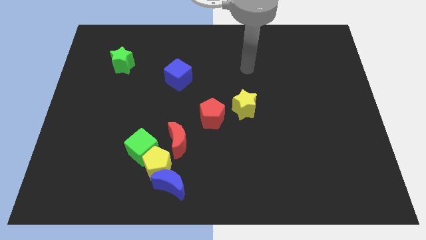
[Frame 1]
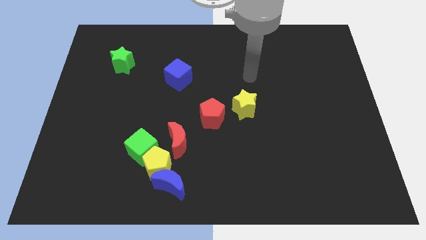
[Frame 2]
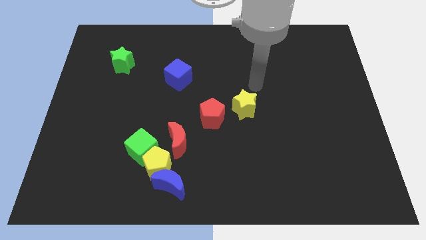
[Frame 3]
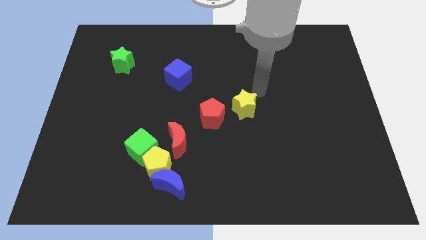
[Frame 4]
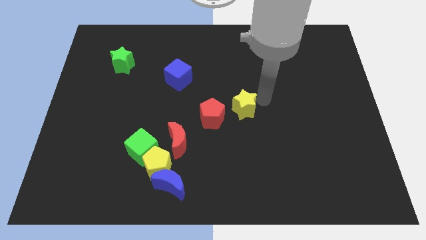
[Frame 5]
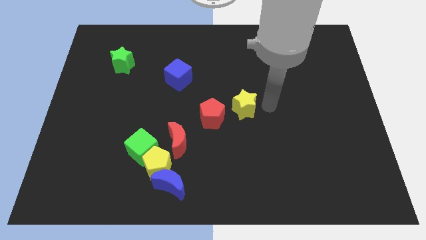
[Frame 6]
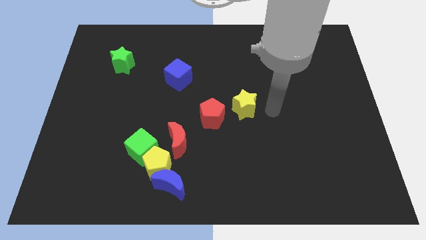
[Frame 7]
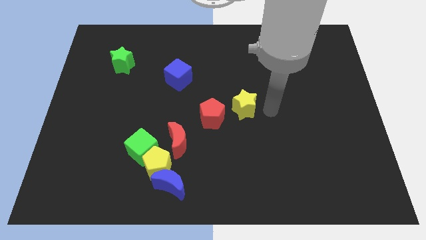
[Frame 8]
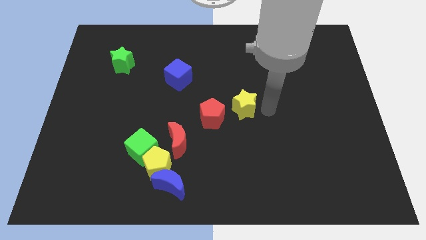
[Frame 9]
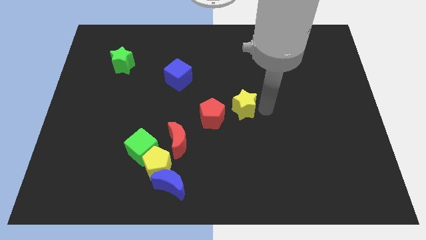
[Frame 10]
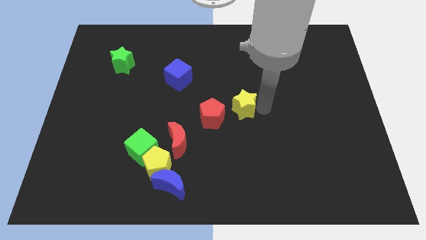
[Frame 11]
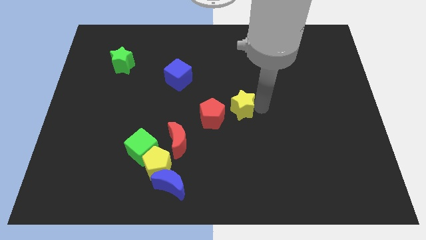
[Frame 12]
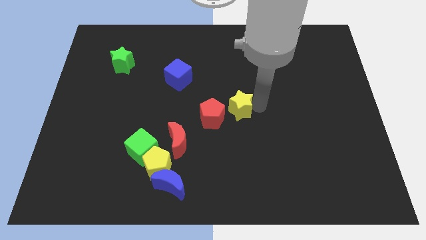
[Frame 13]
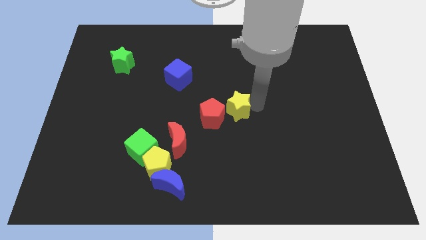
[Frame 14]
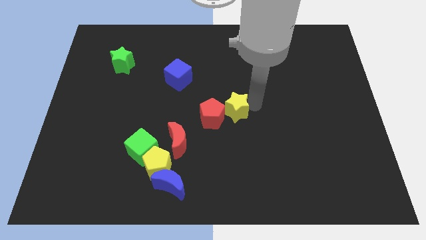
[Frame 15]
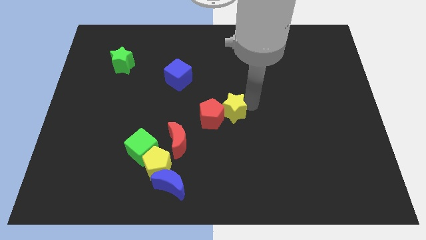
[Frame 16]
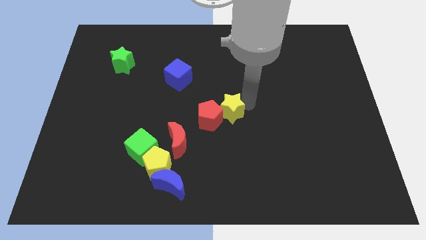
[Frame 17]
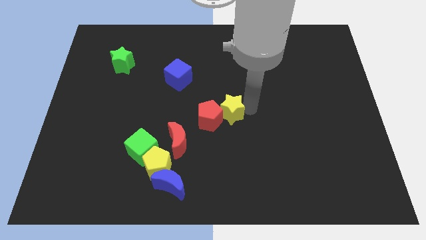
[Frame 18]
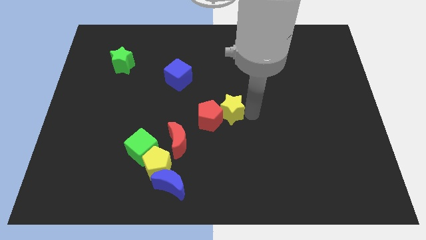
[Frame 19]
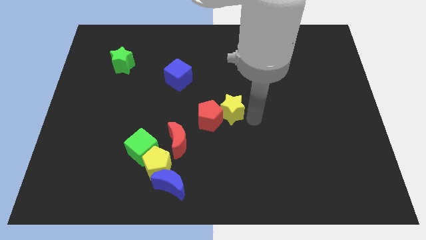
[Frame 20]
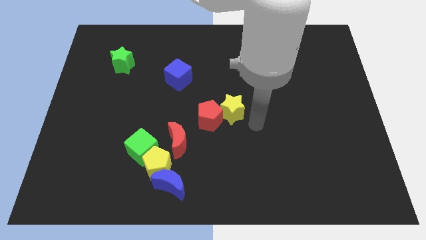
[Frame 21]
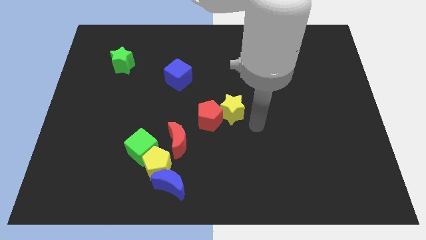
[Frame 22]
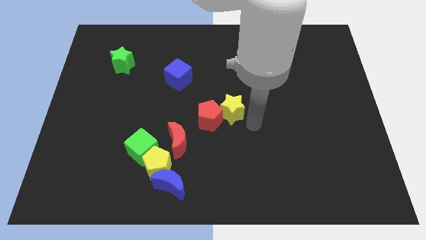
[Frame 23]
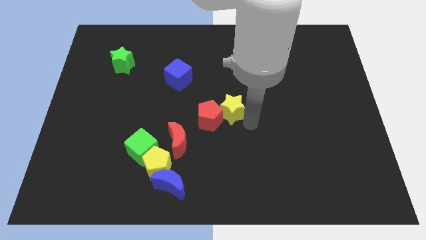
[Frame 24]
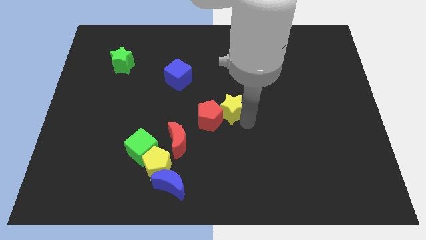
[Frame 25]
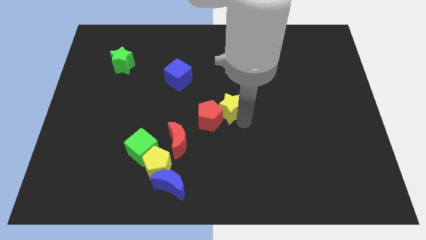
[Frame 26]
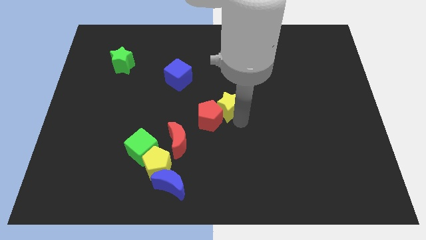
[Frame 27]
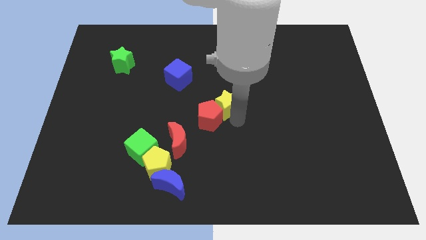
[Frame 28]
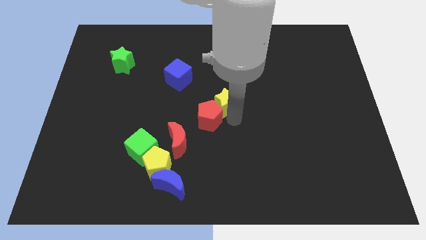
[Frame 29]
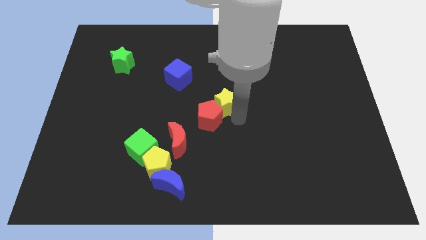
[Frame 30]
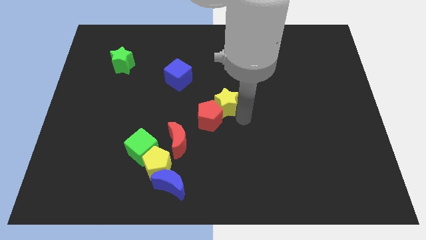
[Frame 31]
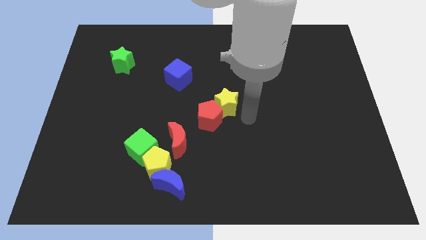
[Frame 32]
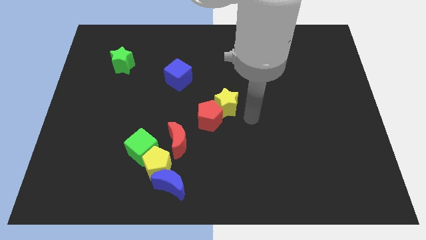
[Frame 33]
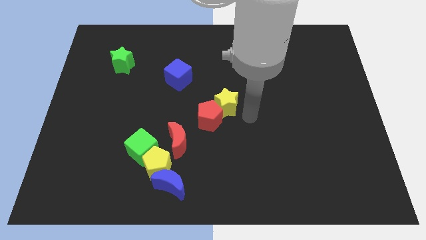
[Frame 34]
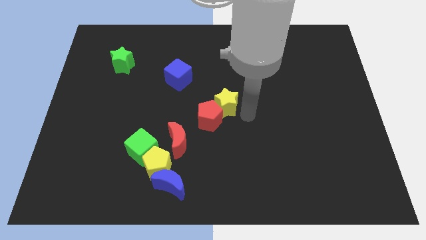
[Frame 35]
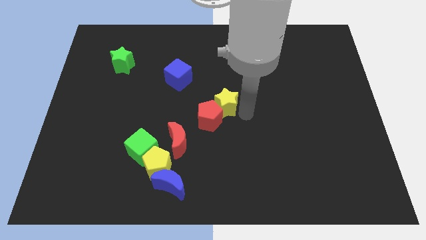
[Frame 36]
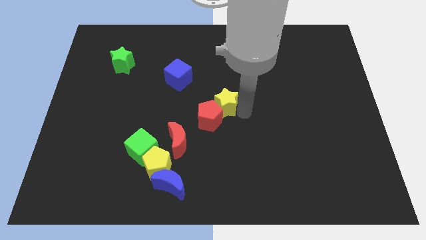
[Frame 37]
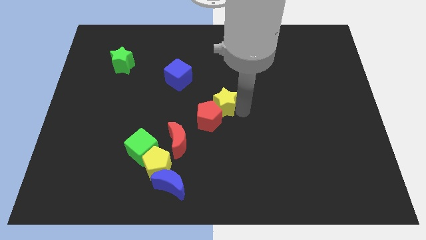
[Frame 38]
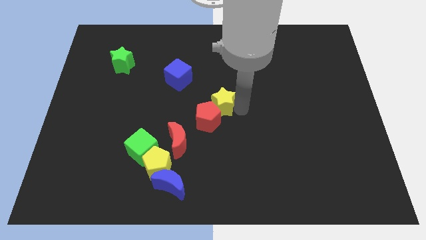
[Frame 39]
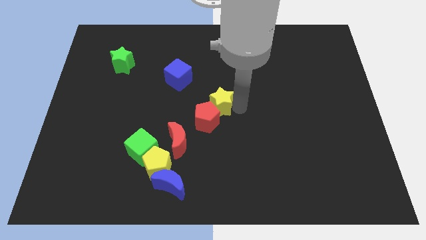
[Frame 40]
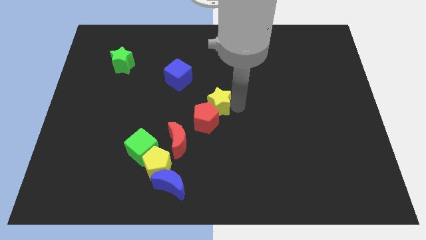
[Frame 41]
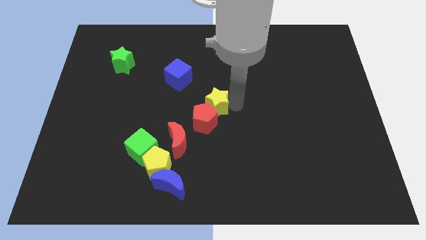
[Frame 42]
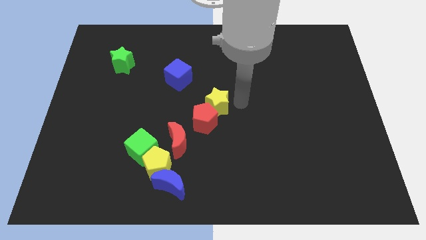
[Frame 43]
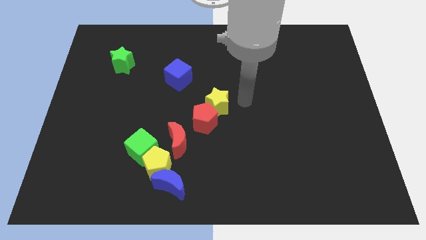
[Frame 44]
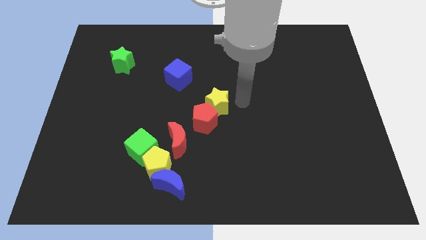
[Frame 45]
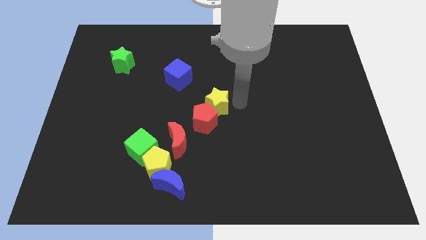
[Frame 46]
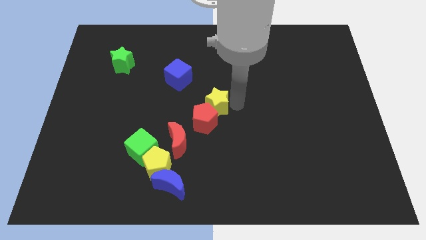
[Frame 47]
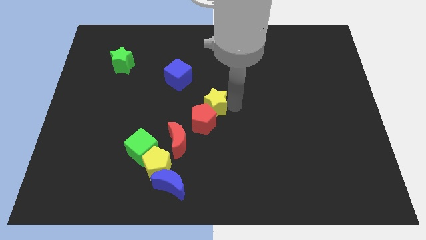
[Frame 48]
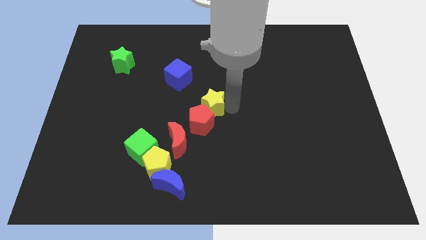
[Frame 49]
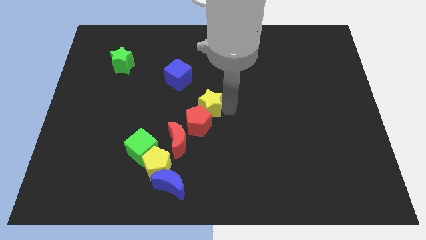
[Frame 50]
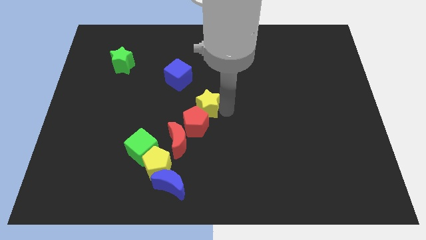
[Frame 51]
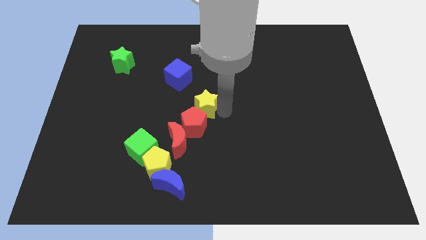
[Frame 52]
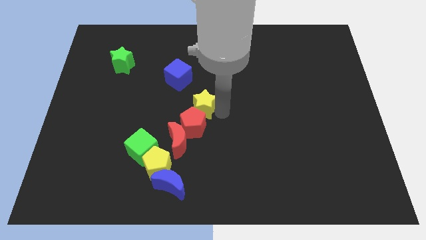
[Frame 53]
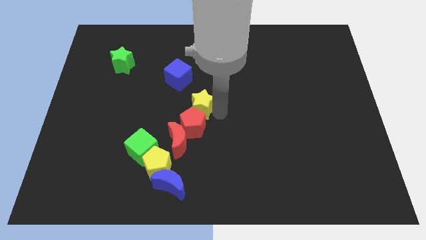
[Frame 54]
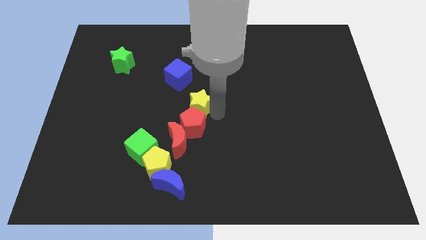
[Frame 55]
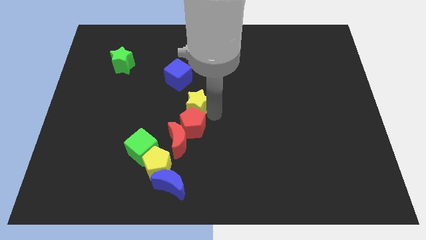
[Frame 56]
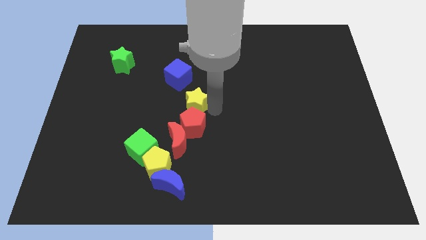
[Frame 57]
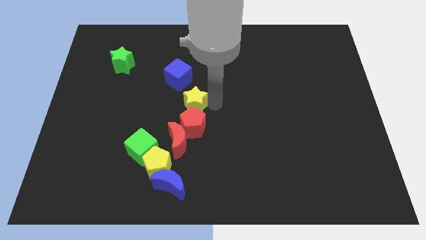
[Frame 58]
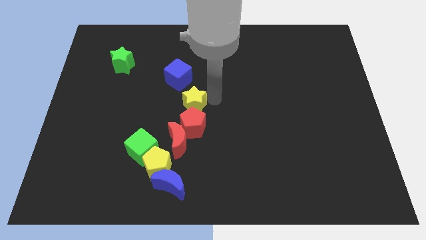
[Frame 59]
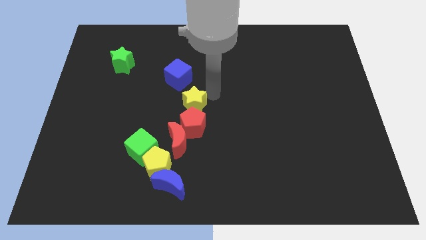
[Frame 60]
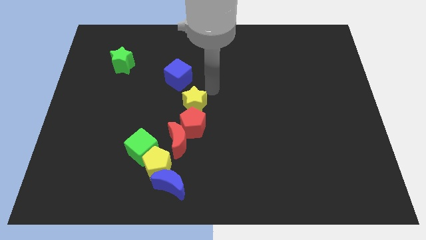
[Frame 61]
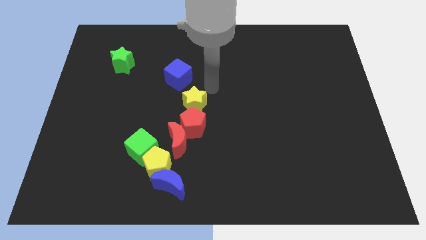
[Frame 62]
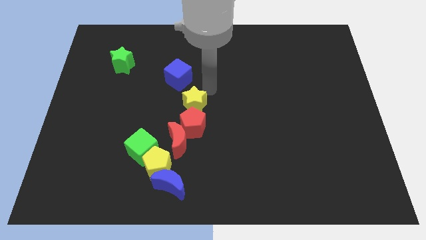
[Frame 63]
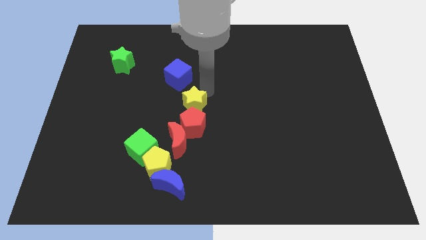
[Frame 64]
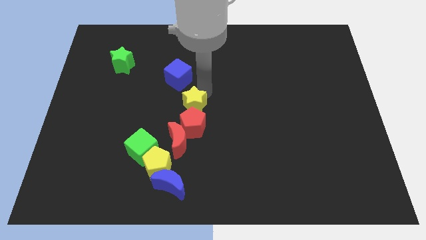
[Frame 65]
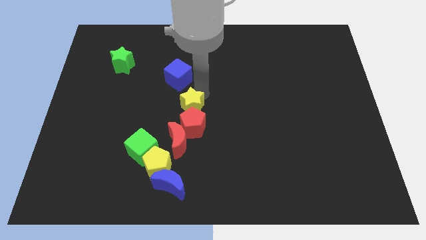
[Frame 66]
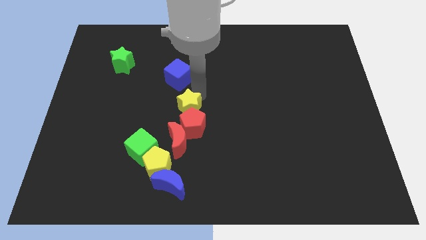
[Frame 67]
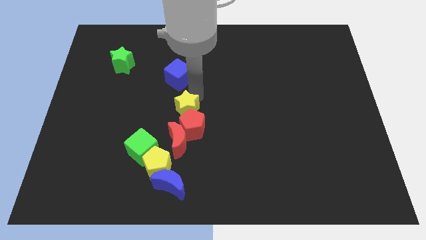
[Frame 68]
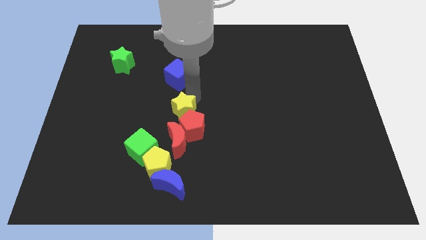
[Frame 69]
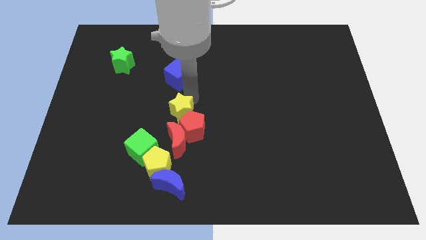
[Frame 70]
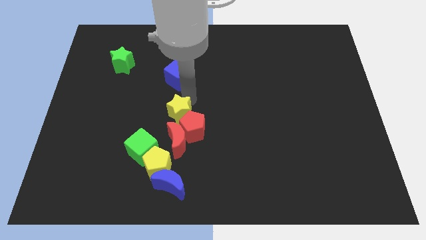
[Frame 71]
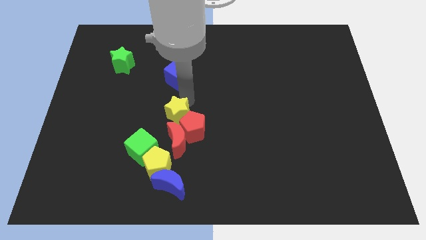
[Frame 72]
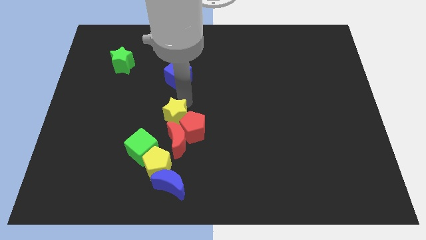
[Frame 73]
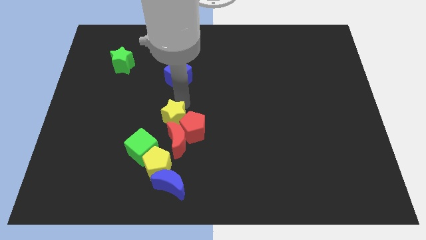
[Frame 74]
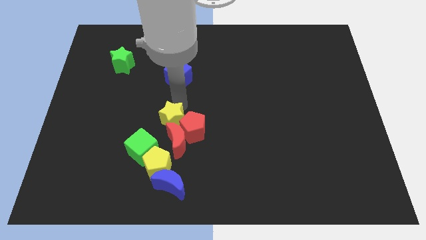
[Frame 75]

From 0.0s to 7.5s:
move the yellow star to the top side of the blue moon
